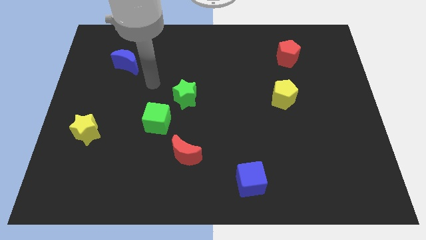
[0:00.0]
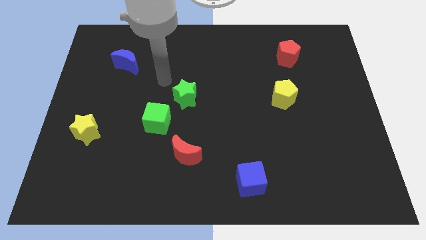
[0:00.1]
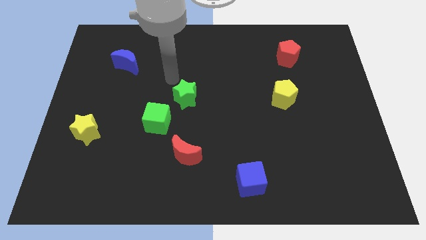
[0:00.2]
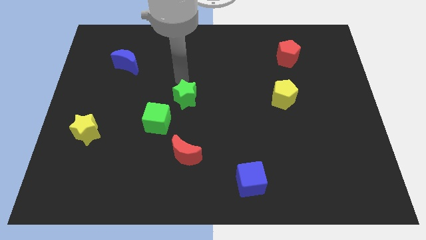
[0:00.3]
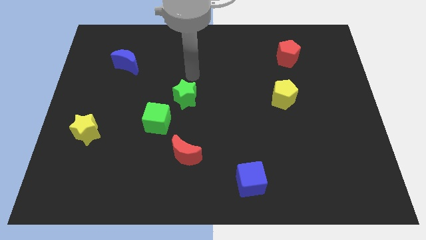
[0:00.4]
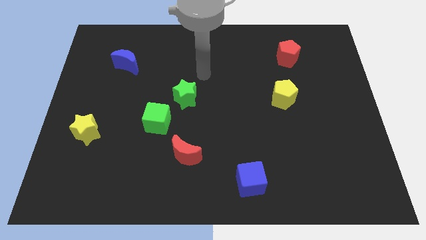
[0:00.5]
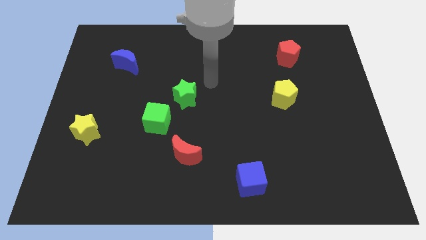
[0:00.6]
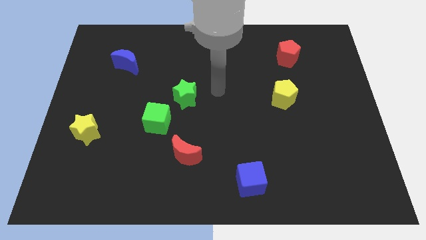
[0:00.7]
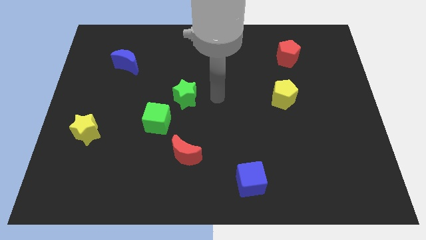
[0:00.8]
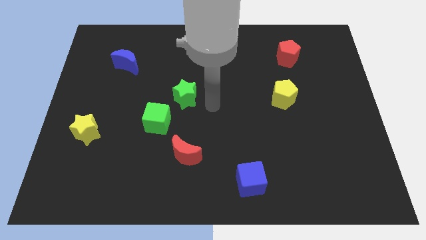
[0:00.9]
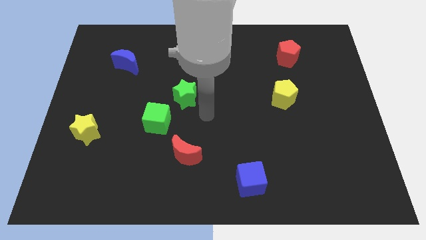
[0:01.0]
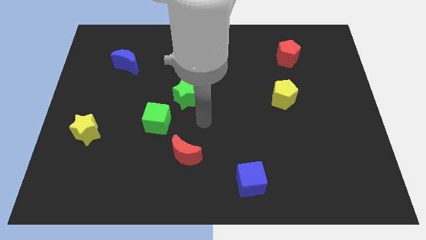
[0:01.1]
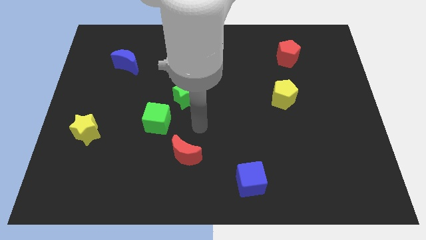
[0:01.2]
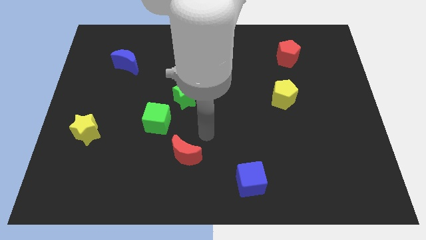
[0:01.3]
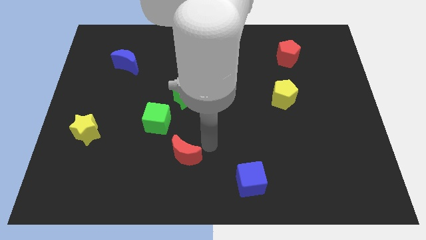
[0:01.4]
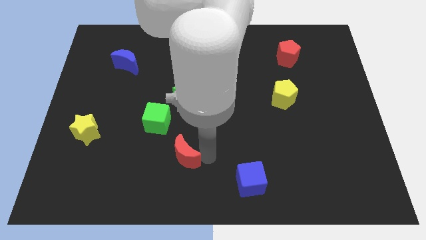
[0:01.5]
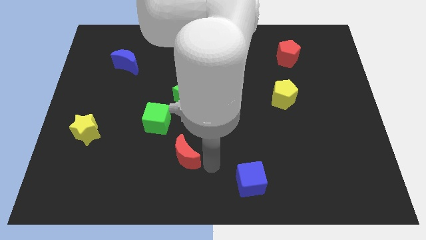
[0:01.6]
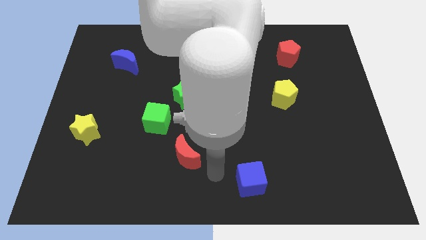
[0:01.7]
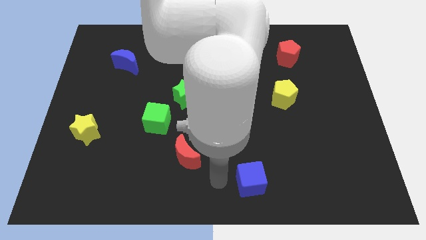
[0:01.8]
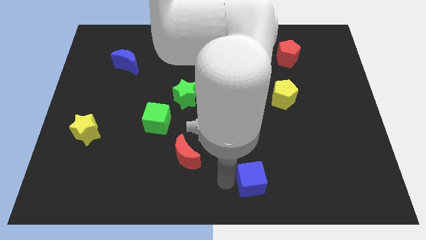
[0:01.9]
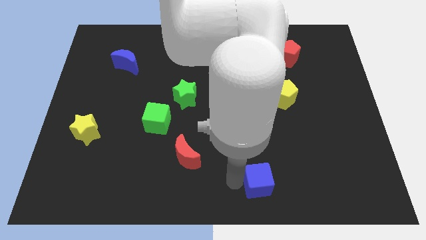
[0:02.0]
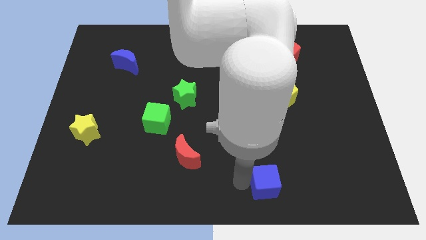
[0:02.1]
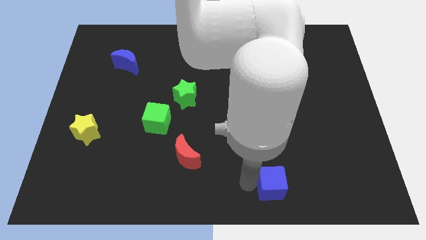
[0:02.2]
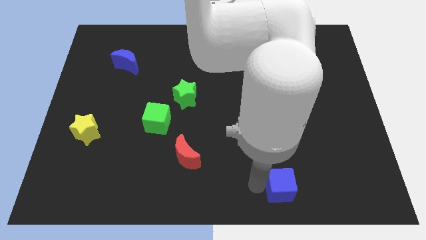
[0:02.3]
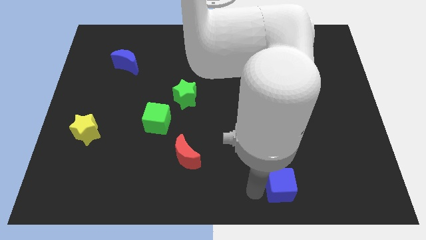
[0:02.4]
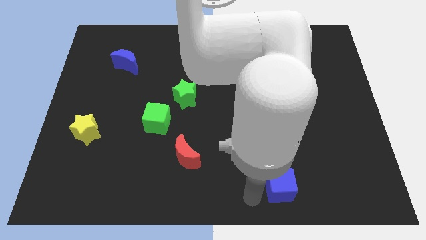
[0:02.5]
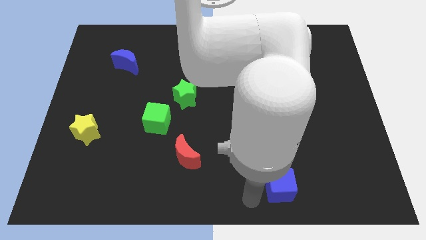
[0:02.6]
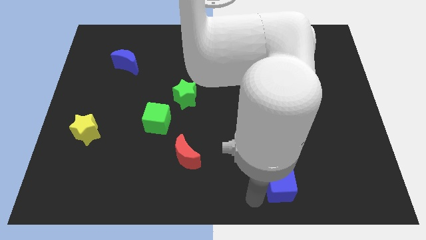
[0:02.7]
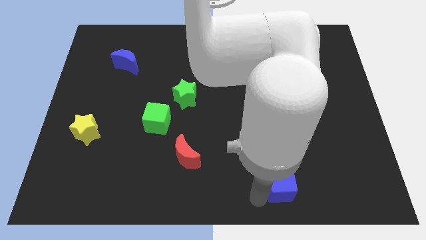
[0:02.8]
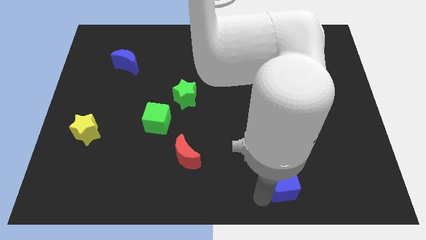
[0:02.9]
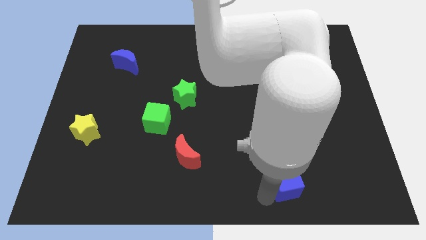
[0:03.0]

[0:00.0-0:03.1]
push the blue cube a little bit right

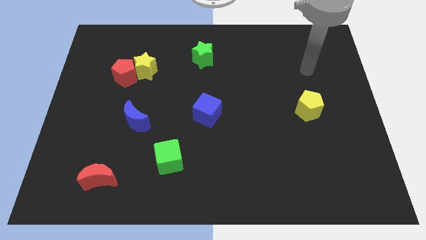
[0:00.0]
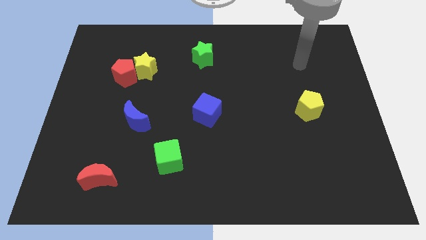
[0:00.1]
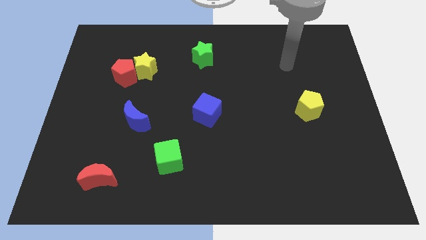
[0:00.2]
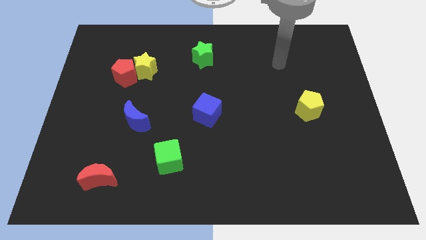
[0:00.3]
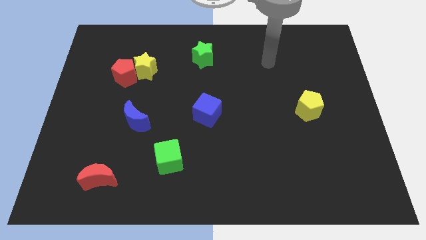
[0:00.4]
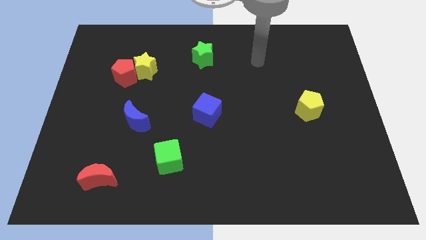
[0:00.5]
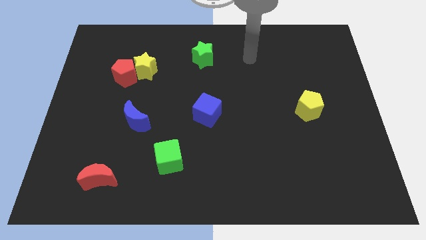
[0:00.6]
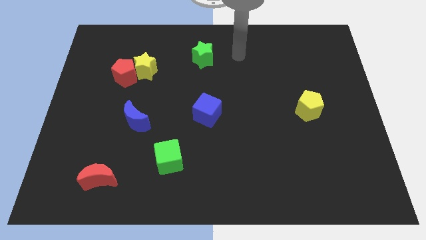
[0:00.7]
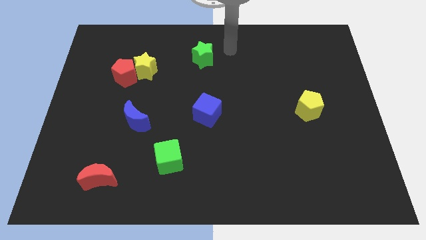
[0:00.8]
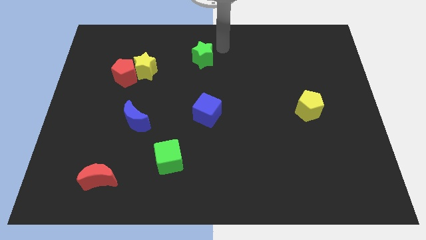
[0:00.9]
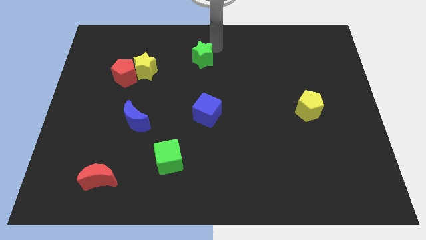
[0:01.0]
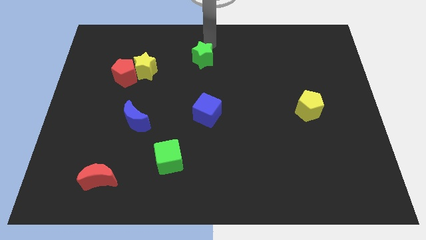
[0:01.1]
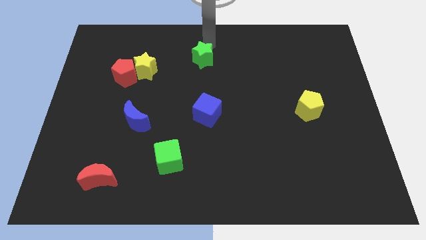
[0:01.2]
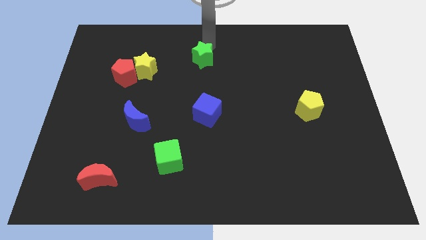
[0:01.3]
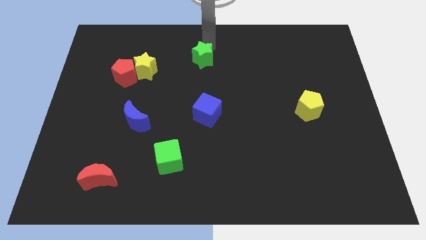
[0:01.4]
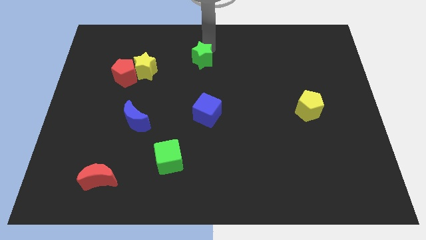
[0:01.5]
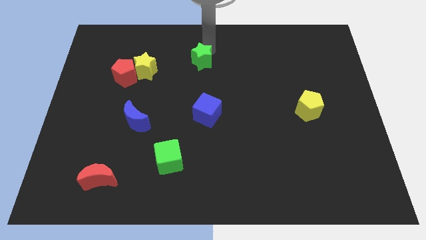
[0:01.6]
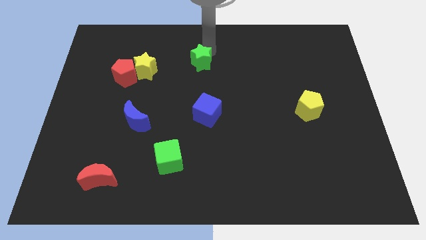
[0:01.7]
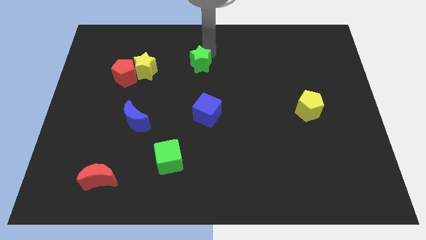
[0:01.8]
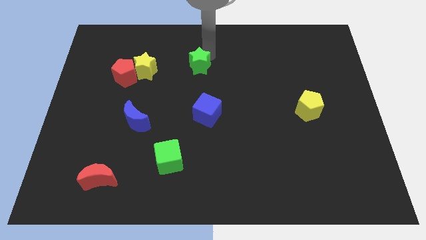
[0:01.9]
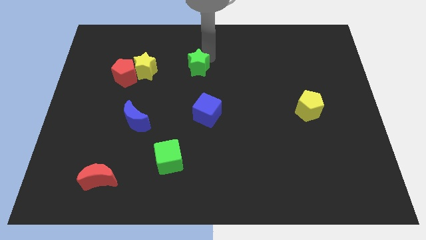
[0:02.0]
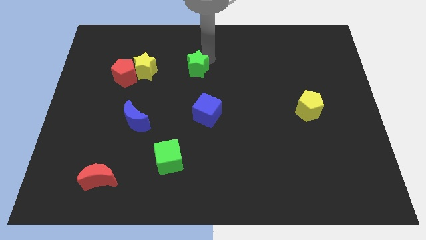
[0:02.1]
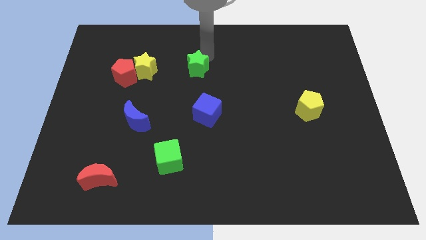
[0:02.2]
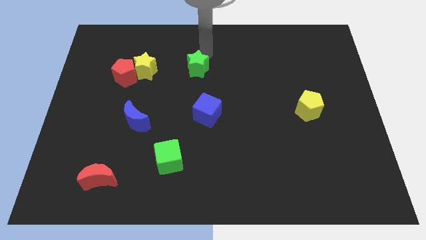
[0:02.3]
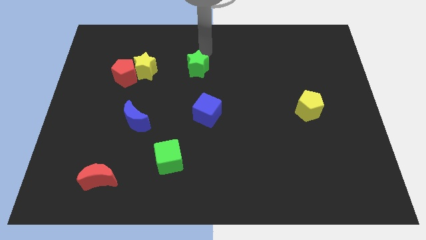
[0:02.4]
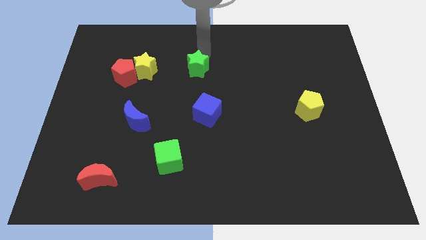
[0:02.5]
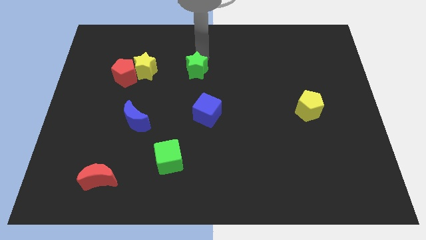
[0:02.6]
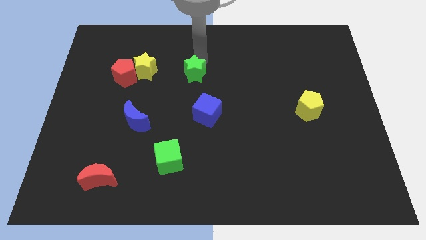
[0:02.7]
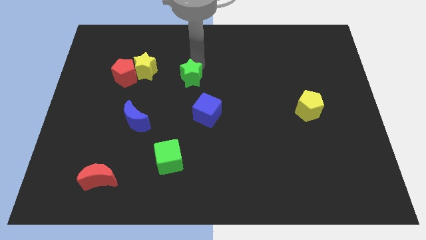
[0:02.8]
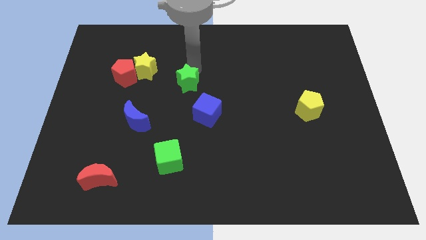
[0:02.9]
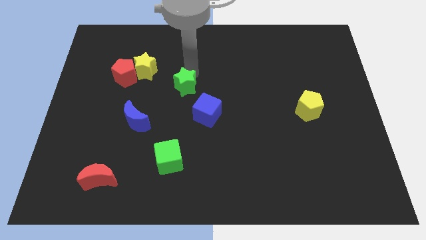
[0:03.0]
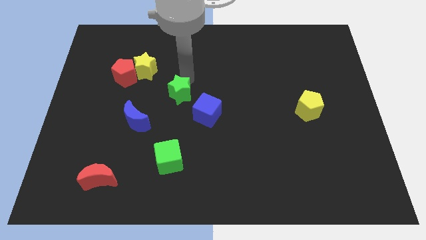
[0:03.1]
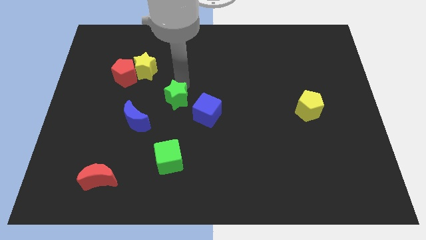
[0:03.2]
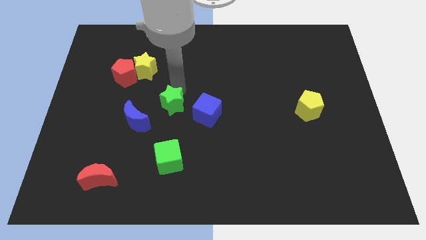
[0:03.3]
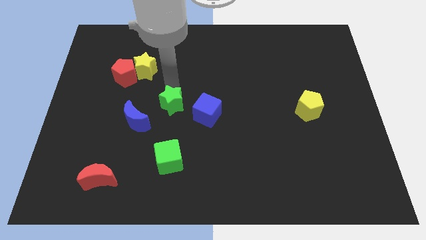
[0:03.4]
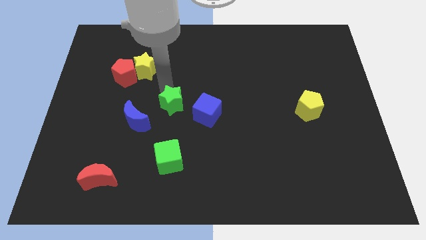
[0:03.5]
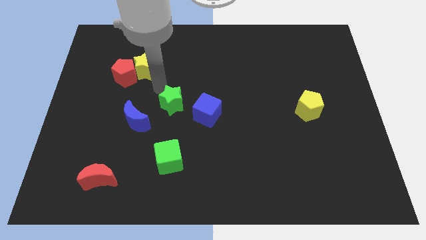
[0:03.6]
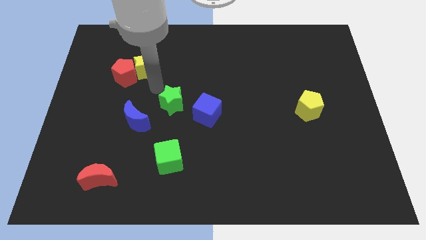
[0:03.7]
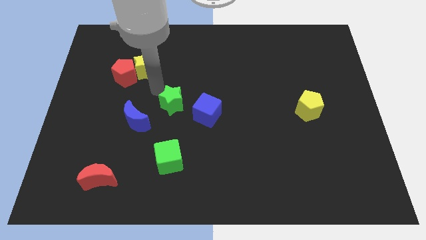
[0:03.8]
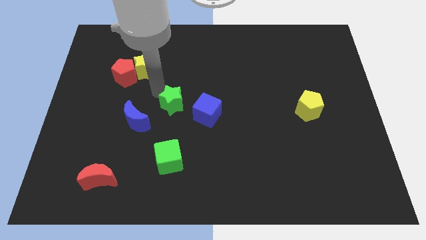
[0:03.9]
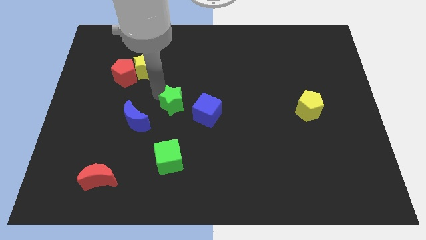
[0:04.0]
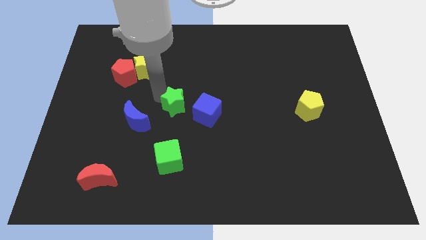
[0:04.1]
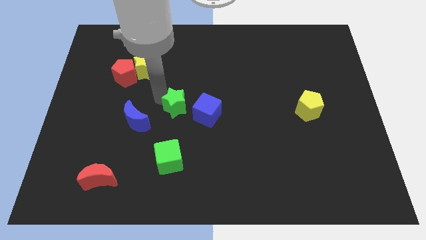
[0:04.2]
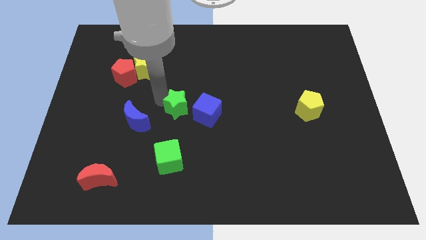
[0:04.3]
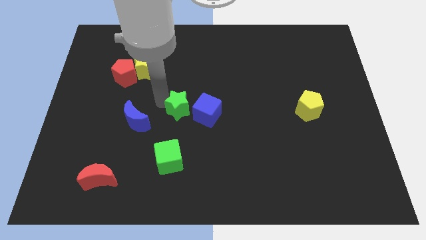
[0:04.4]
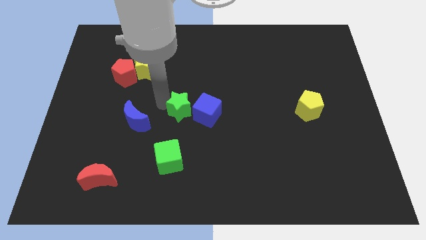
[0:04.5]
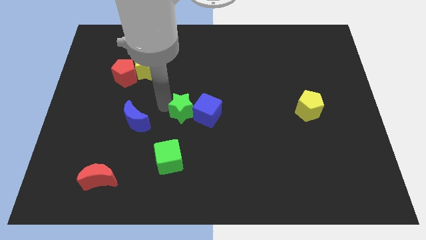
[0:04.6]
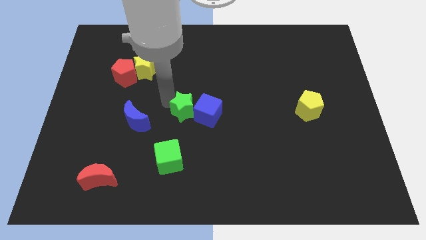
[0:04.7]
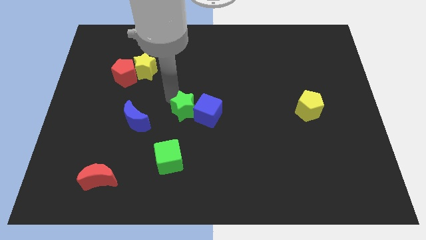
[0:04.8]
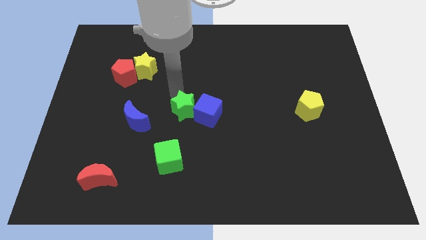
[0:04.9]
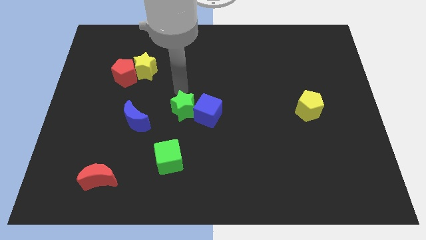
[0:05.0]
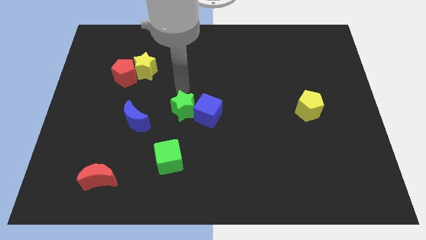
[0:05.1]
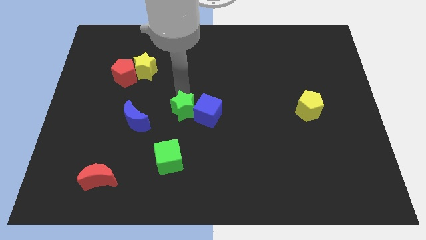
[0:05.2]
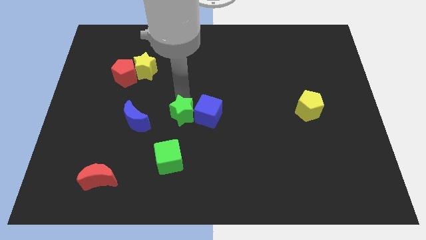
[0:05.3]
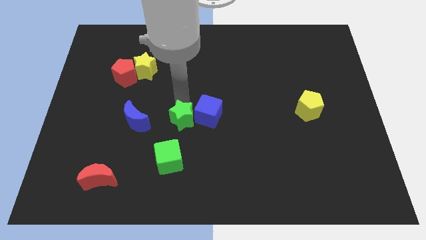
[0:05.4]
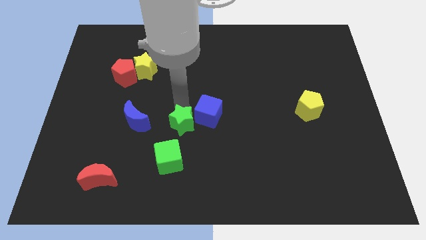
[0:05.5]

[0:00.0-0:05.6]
push the green star downwards
